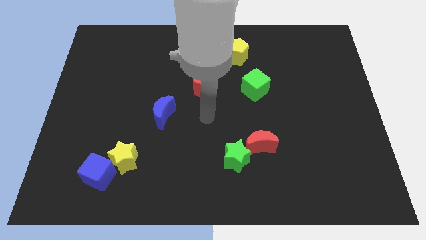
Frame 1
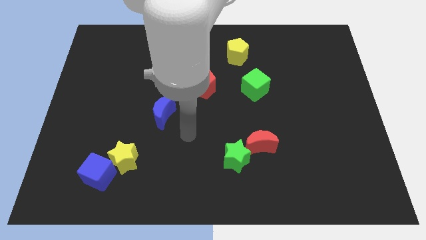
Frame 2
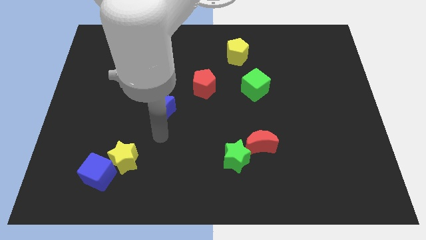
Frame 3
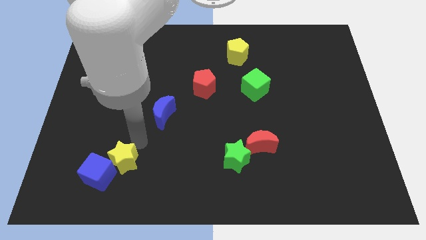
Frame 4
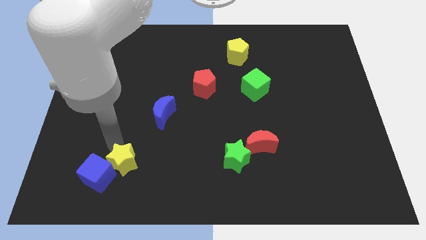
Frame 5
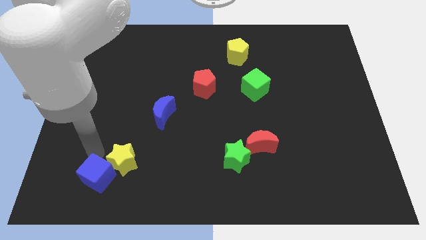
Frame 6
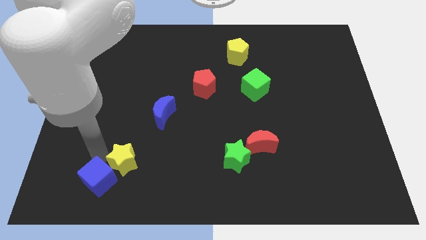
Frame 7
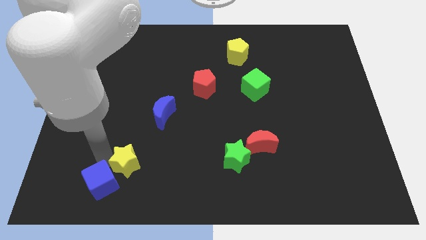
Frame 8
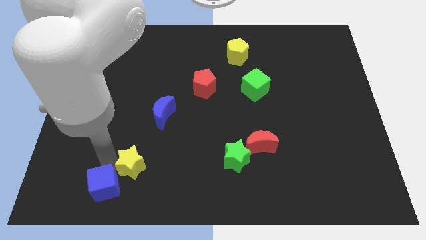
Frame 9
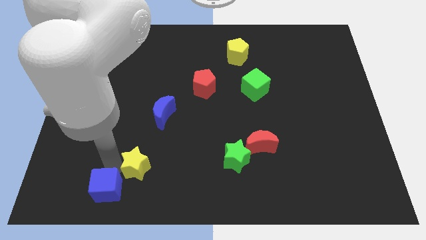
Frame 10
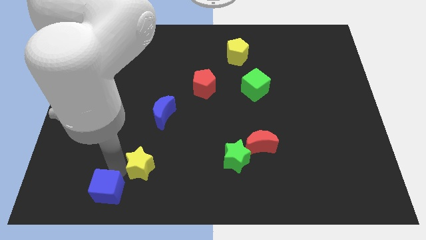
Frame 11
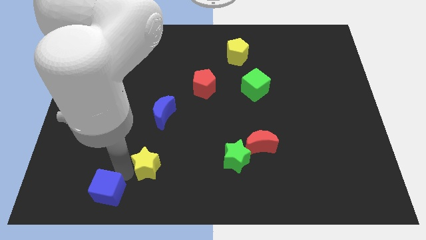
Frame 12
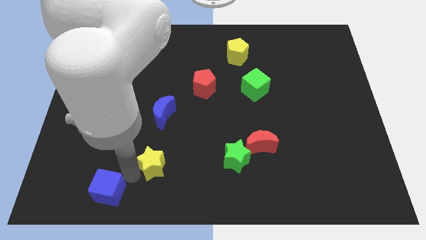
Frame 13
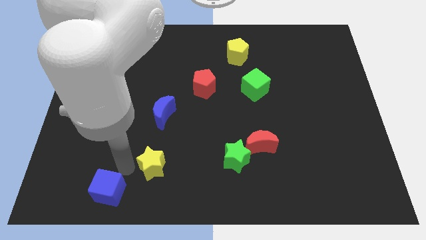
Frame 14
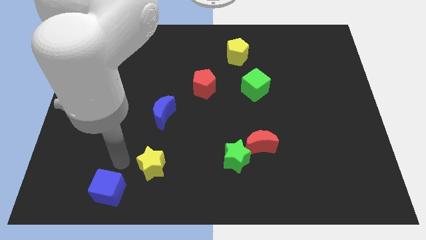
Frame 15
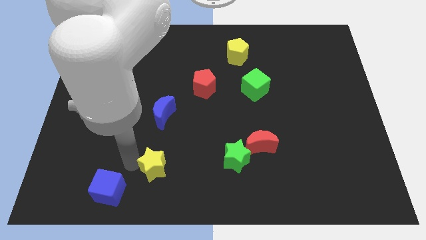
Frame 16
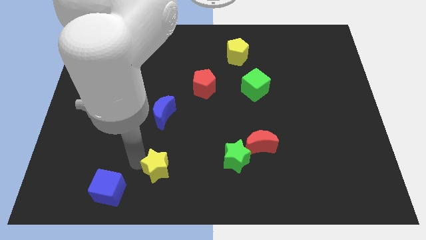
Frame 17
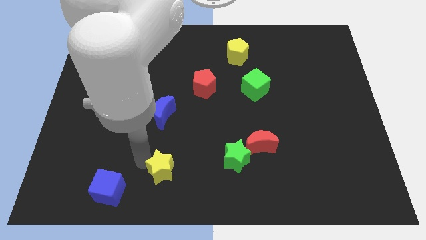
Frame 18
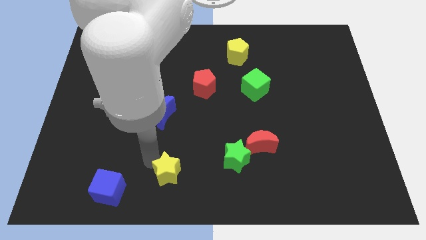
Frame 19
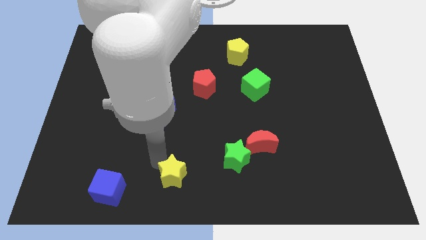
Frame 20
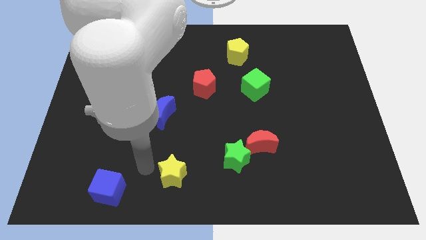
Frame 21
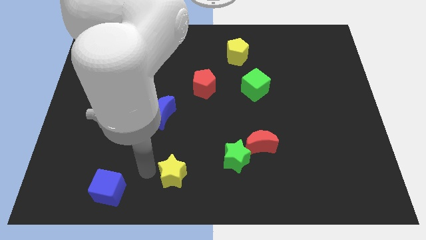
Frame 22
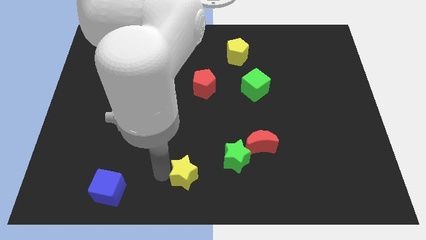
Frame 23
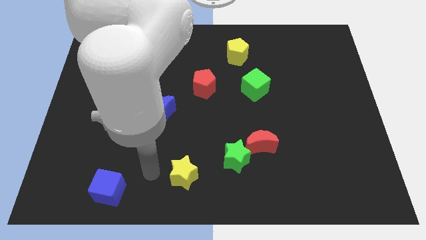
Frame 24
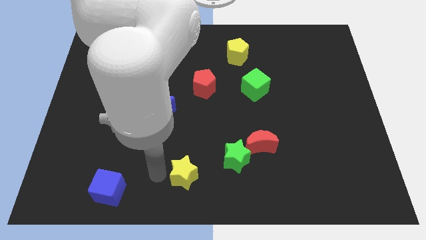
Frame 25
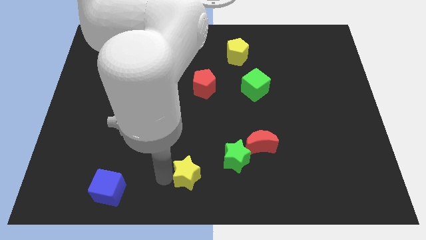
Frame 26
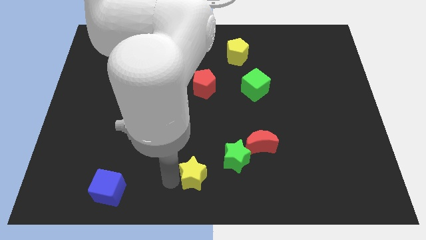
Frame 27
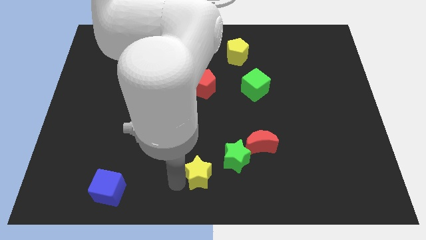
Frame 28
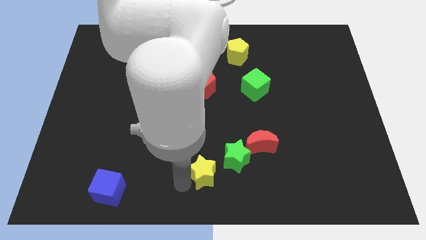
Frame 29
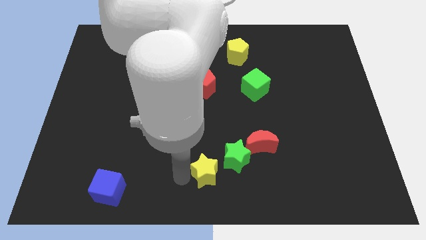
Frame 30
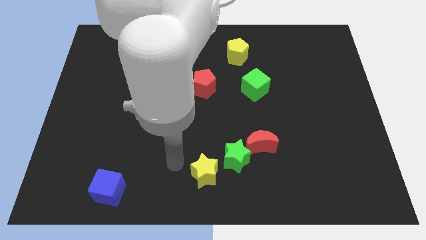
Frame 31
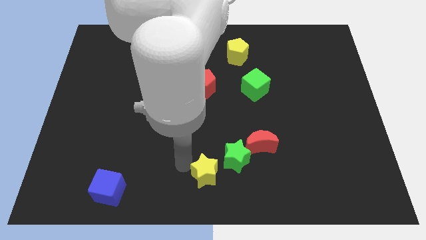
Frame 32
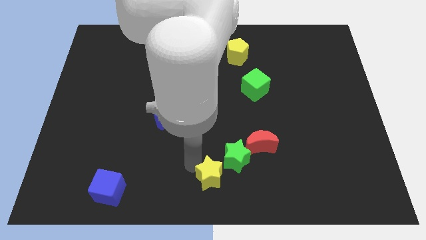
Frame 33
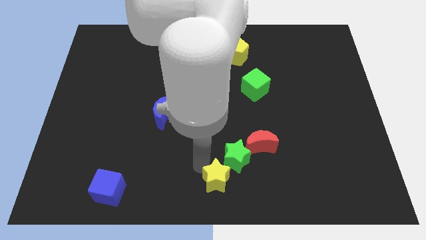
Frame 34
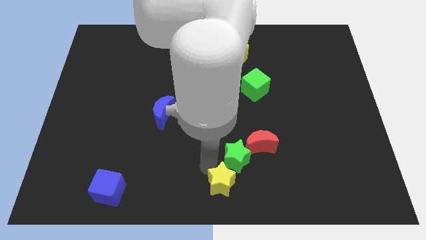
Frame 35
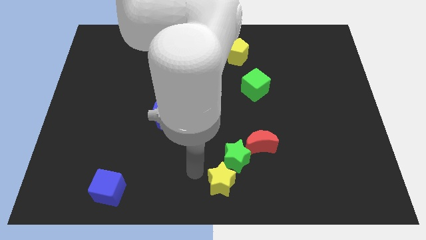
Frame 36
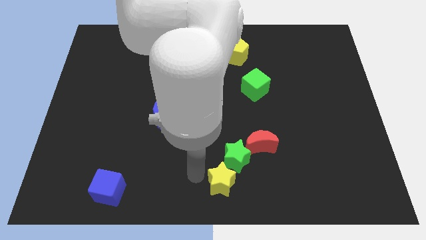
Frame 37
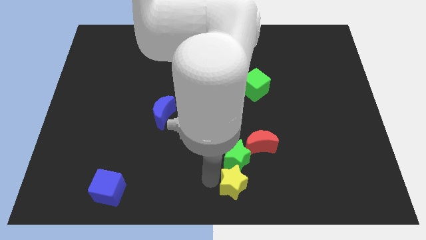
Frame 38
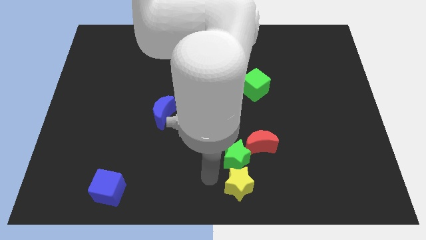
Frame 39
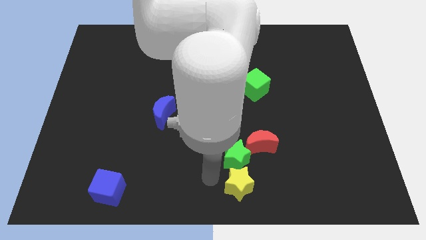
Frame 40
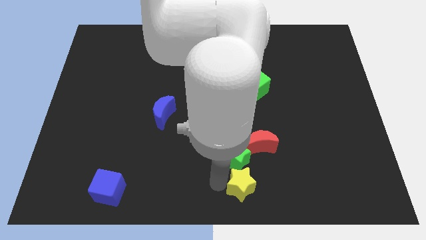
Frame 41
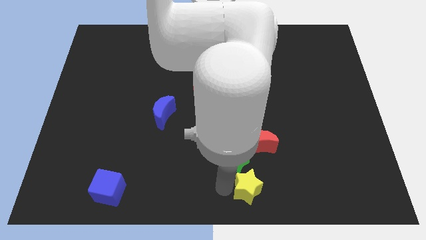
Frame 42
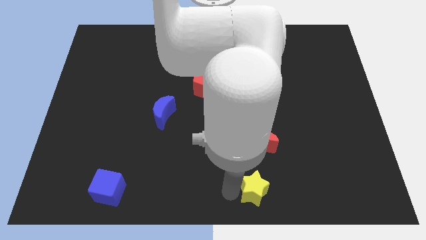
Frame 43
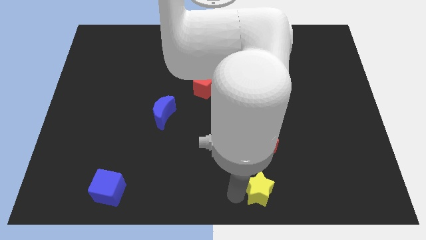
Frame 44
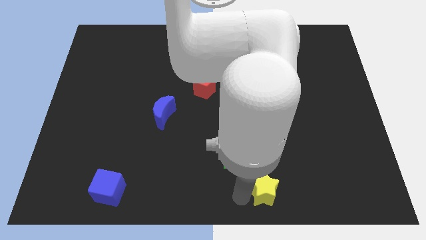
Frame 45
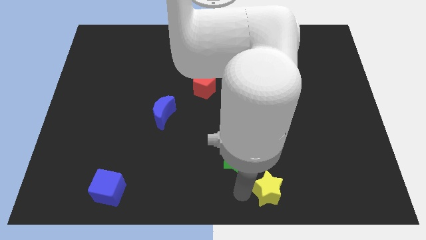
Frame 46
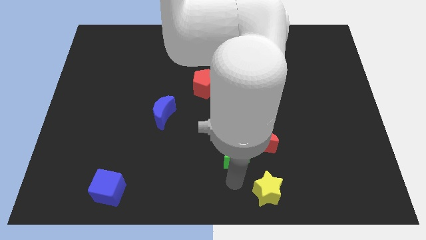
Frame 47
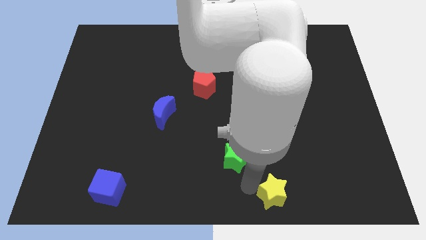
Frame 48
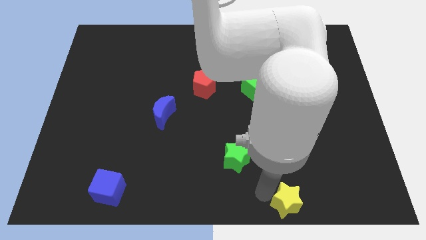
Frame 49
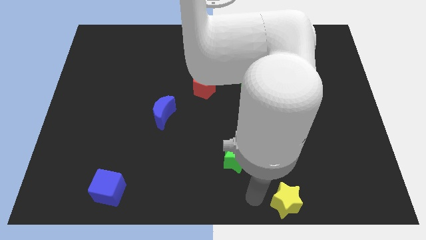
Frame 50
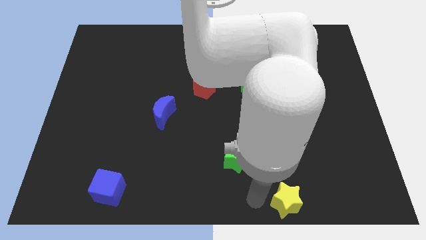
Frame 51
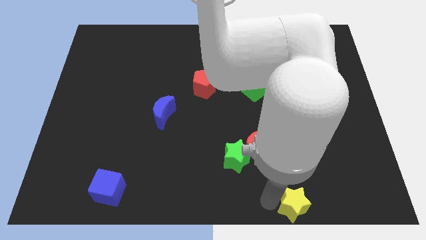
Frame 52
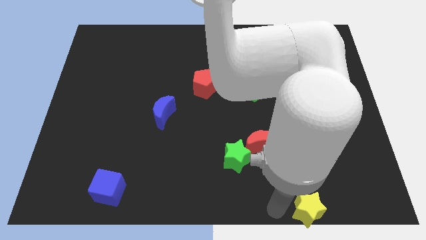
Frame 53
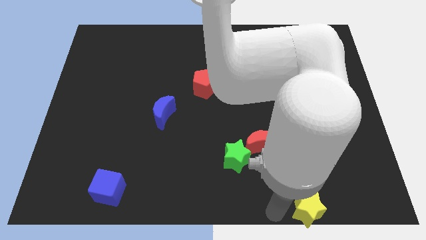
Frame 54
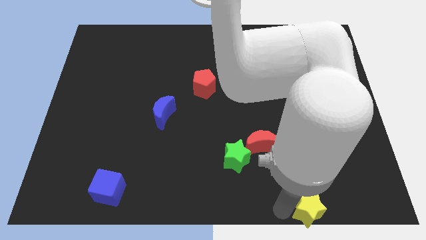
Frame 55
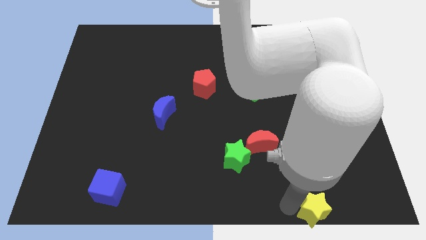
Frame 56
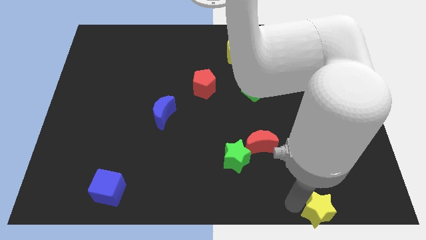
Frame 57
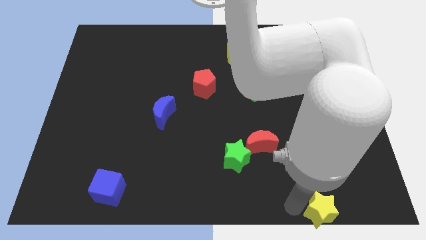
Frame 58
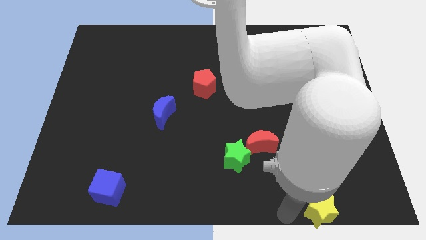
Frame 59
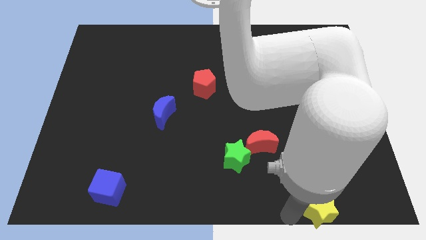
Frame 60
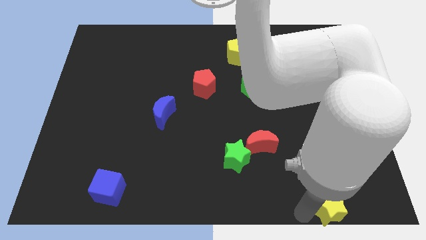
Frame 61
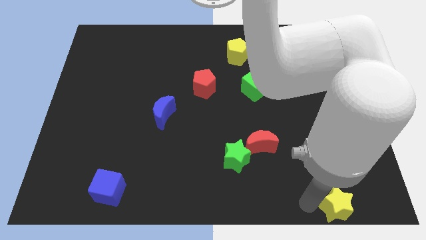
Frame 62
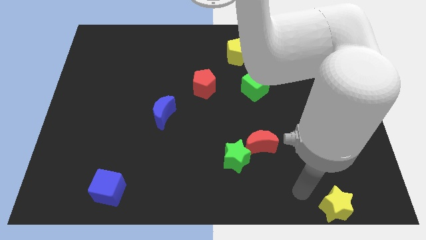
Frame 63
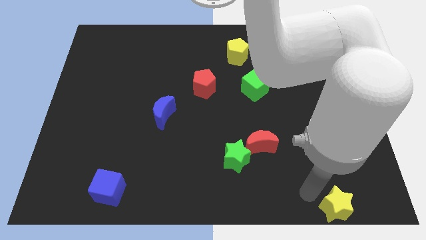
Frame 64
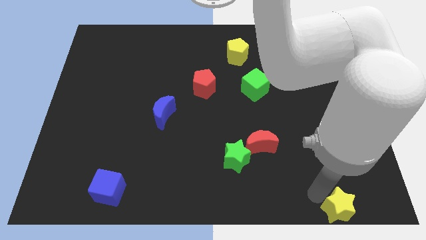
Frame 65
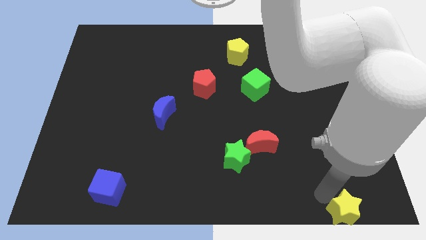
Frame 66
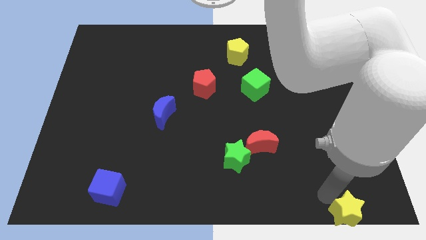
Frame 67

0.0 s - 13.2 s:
push the yellow star to the bottom right corner

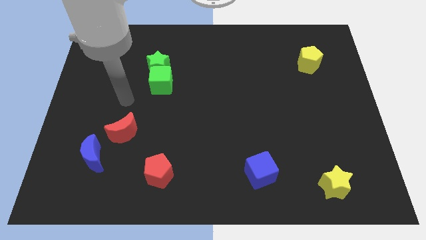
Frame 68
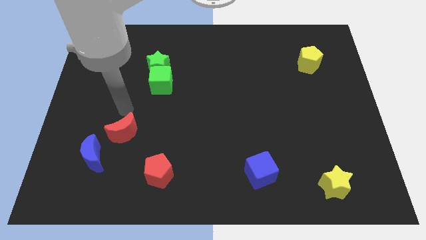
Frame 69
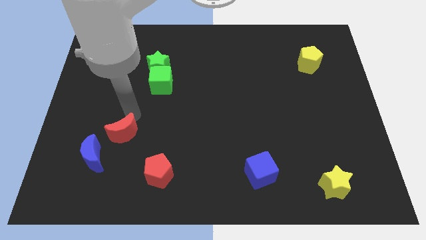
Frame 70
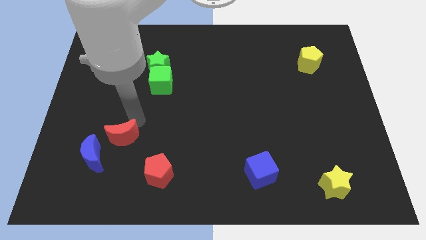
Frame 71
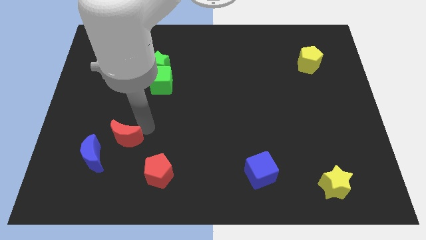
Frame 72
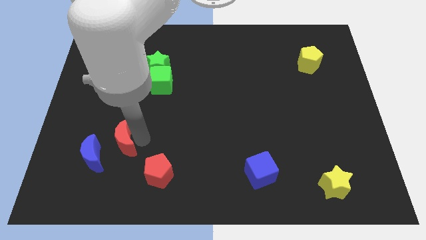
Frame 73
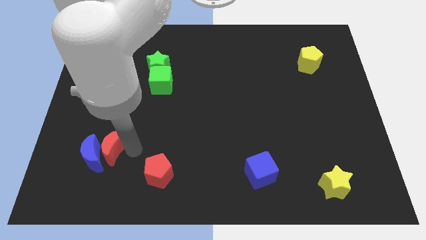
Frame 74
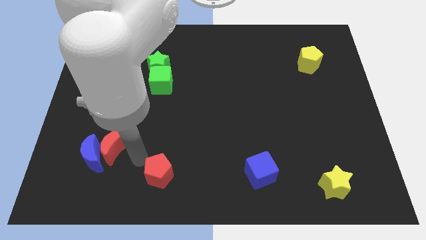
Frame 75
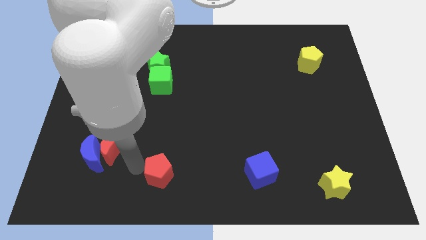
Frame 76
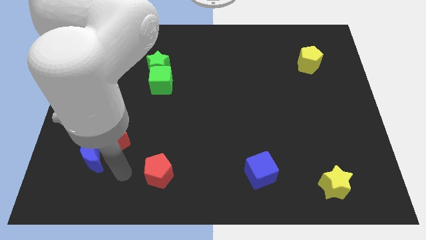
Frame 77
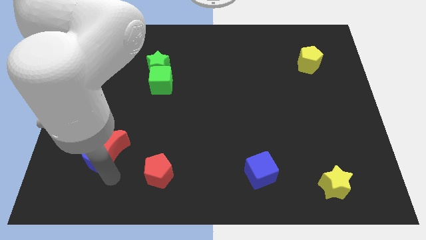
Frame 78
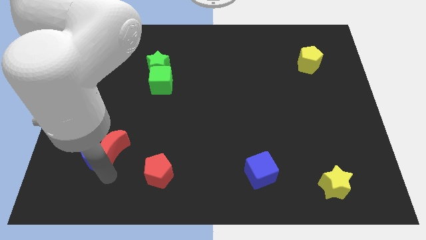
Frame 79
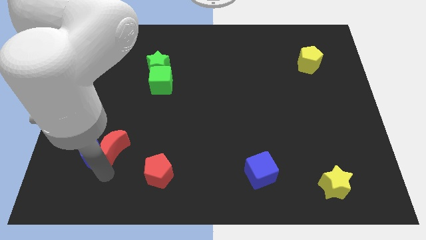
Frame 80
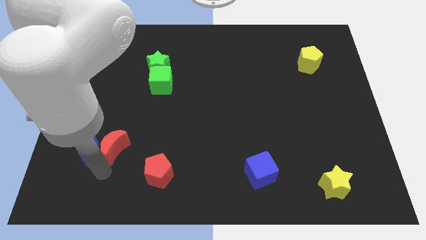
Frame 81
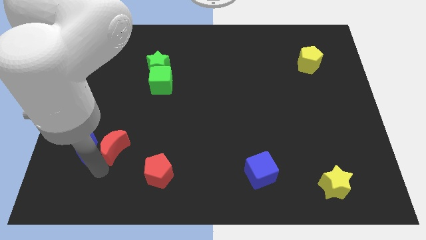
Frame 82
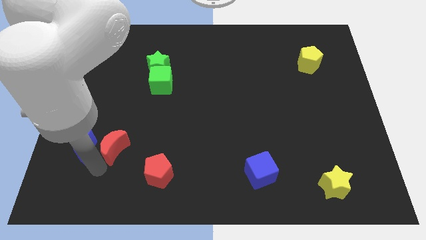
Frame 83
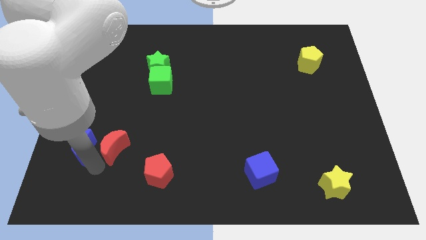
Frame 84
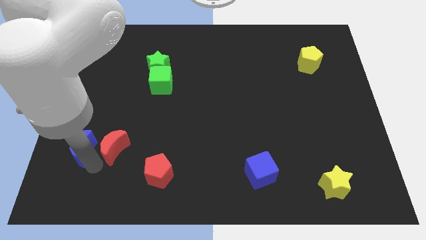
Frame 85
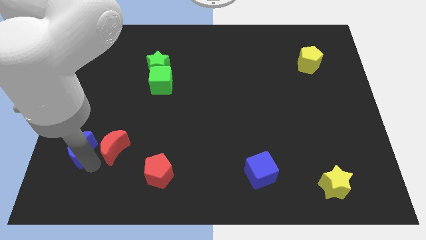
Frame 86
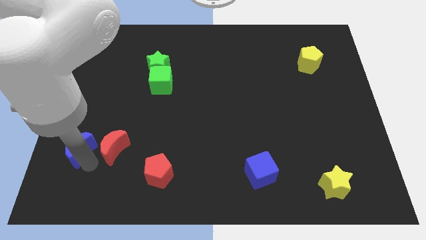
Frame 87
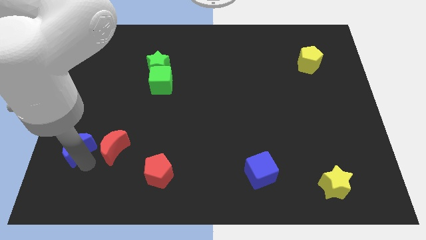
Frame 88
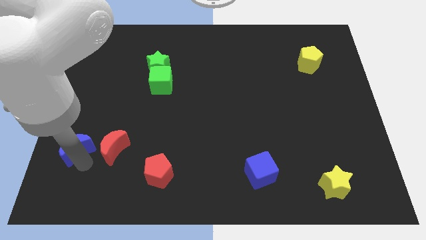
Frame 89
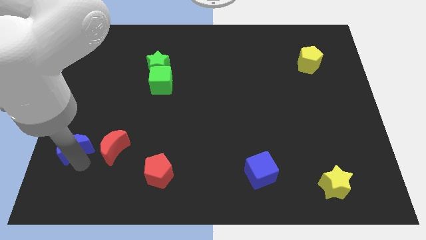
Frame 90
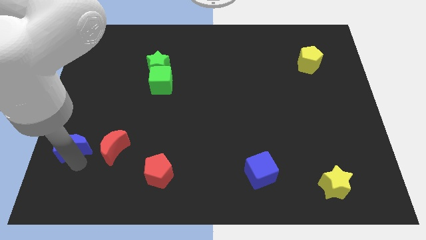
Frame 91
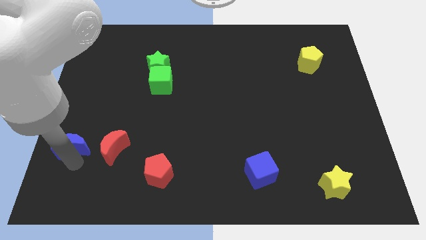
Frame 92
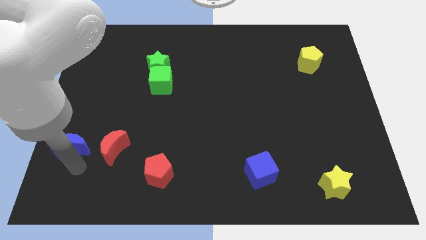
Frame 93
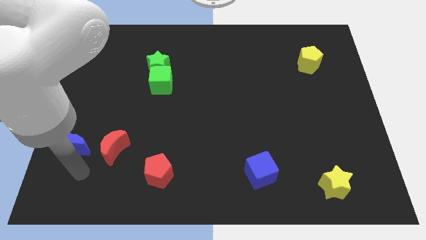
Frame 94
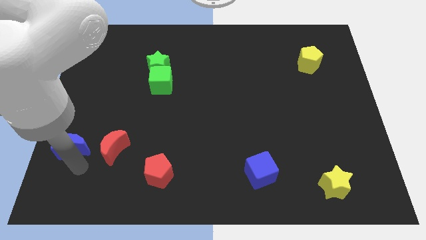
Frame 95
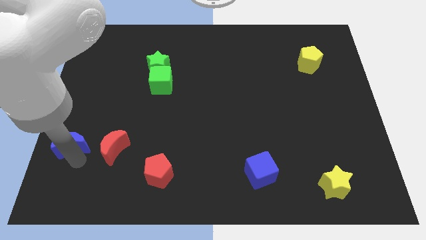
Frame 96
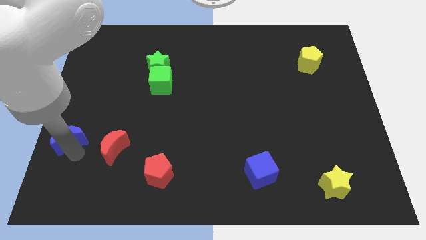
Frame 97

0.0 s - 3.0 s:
push the blue moon to the left side
